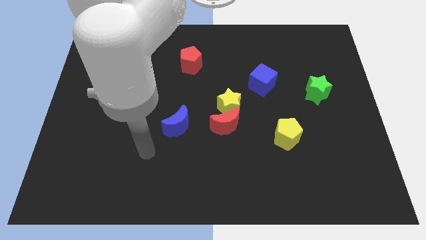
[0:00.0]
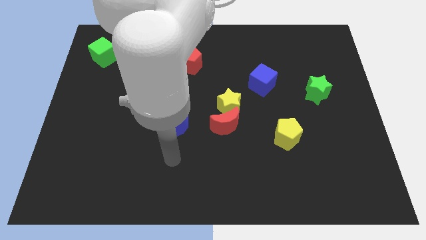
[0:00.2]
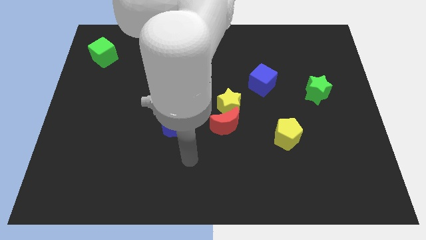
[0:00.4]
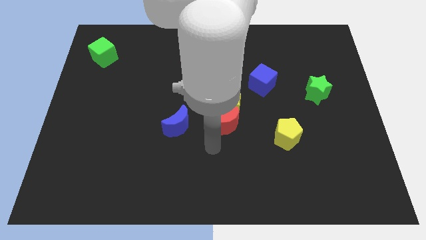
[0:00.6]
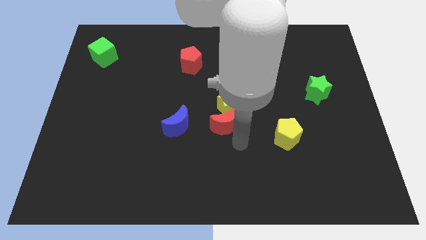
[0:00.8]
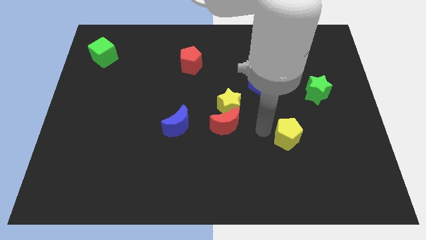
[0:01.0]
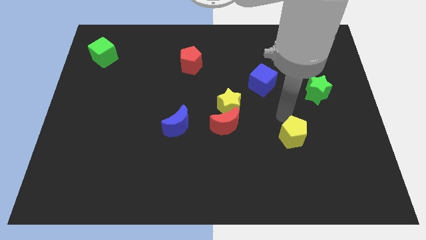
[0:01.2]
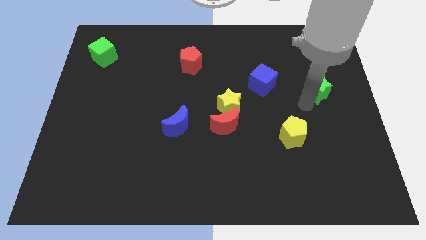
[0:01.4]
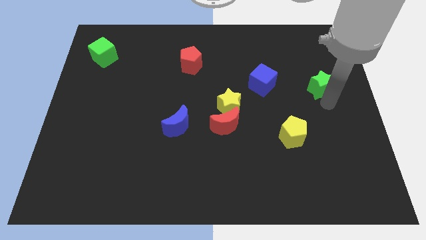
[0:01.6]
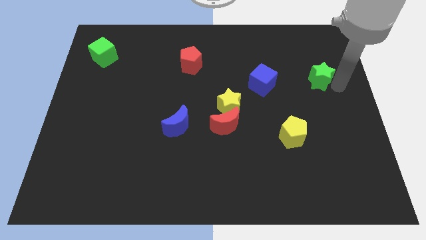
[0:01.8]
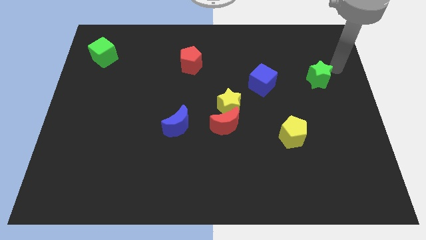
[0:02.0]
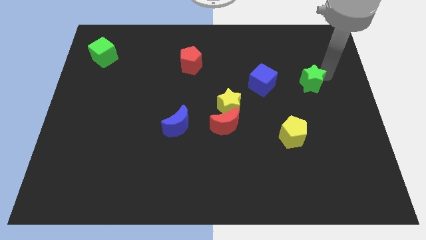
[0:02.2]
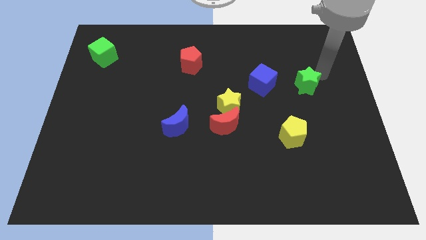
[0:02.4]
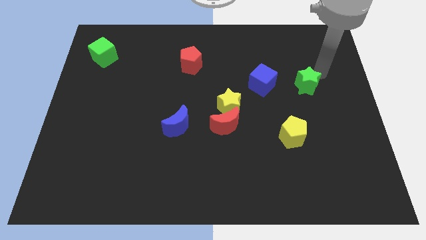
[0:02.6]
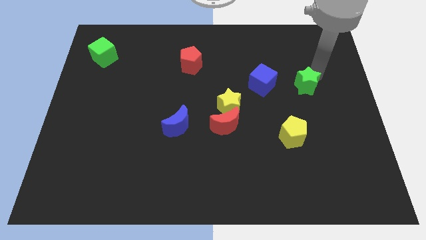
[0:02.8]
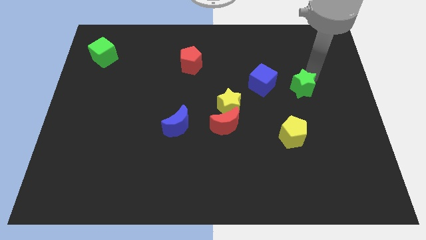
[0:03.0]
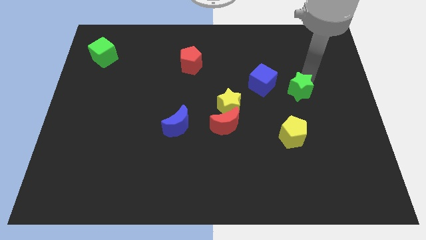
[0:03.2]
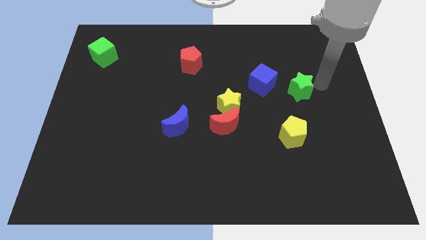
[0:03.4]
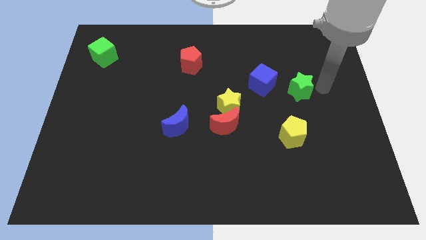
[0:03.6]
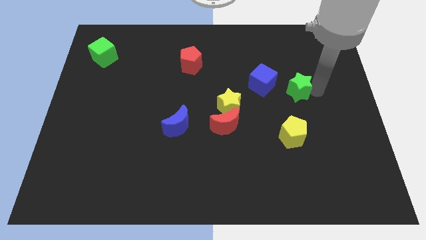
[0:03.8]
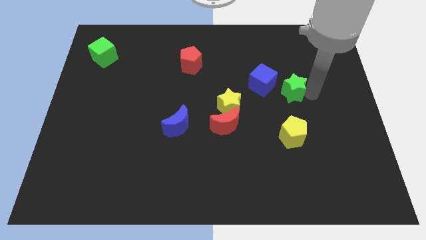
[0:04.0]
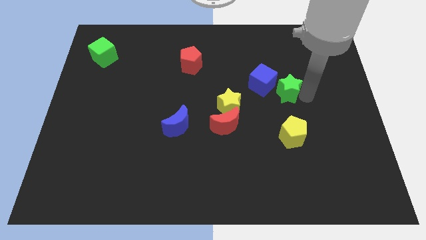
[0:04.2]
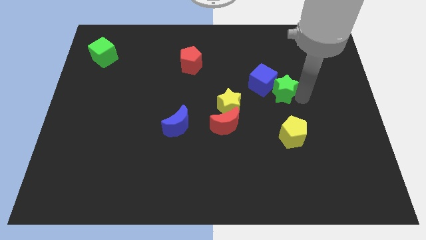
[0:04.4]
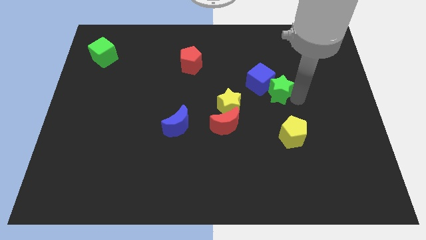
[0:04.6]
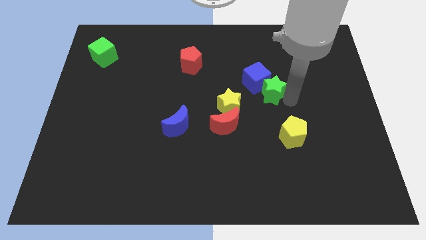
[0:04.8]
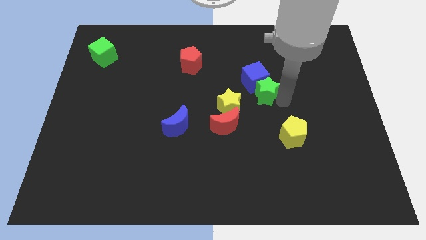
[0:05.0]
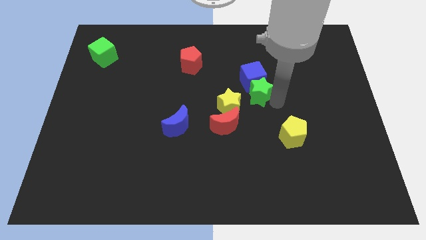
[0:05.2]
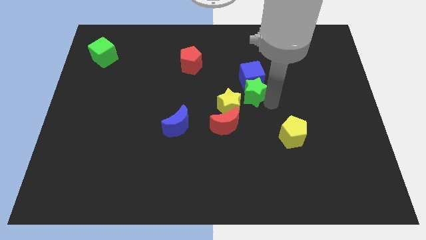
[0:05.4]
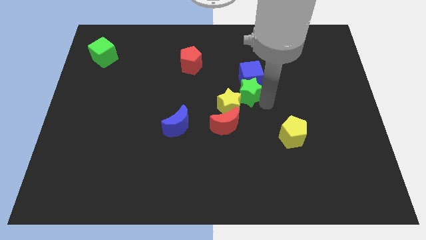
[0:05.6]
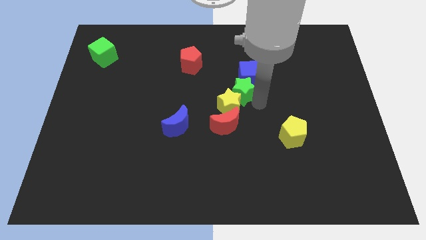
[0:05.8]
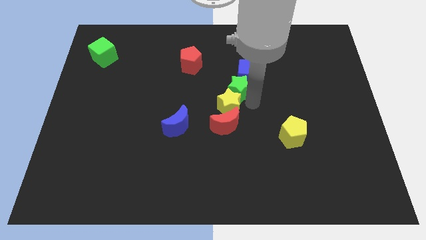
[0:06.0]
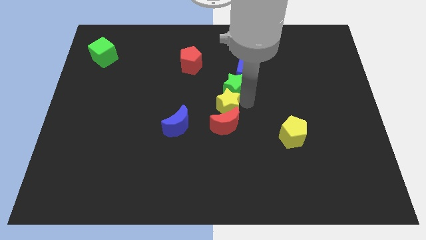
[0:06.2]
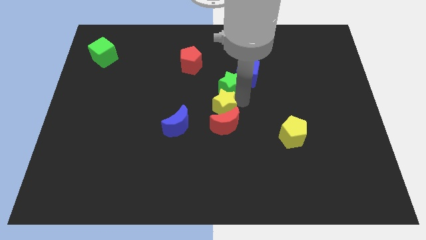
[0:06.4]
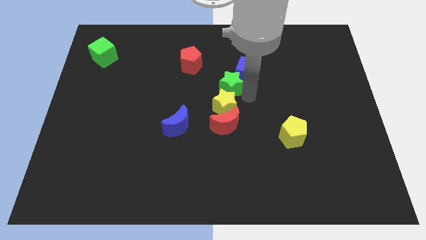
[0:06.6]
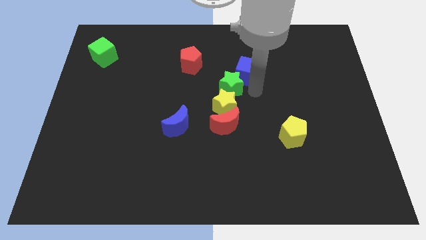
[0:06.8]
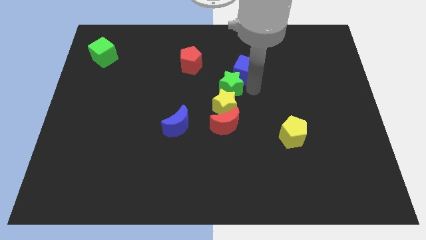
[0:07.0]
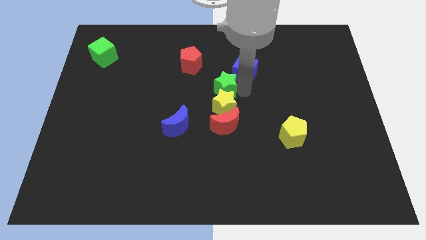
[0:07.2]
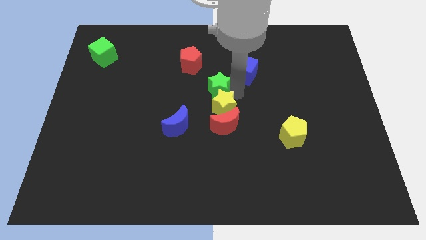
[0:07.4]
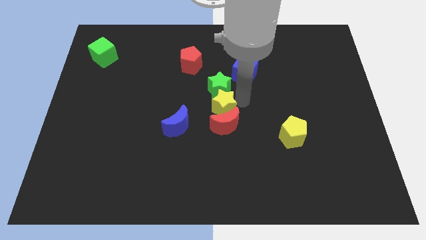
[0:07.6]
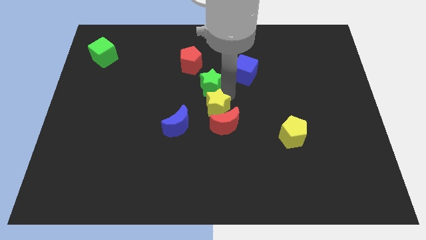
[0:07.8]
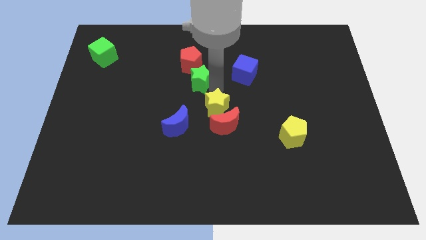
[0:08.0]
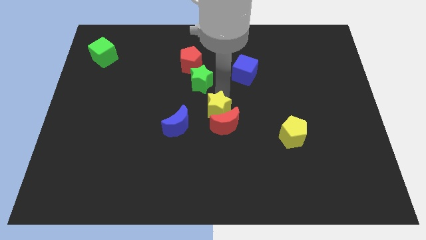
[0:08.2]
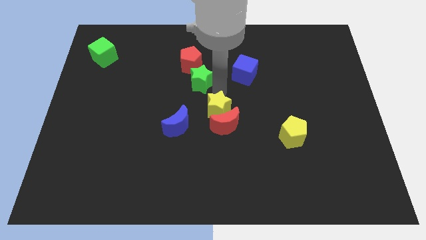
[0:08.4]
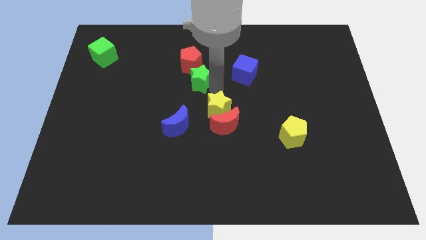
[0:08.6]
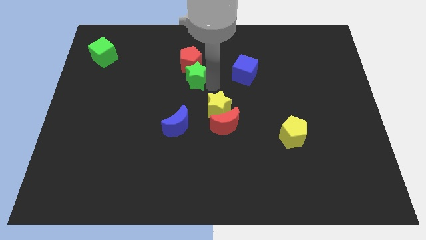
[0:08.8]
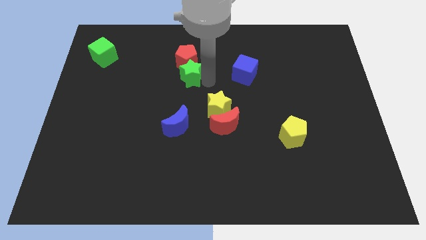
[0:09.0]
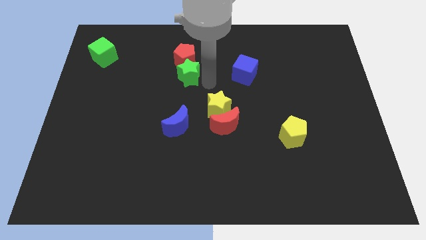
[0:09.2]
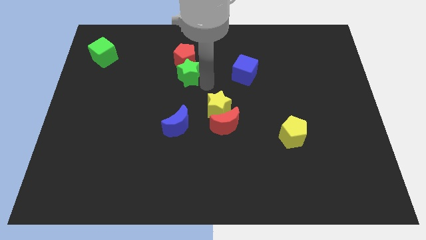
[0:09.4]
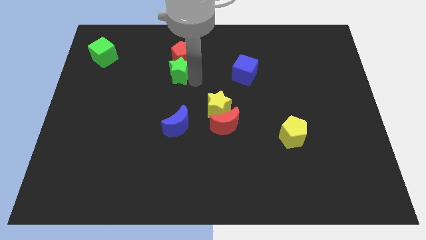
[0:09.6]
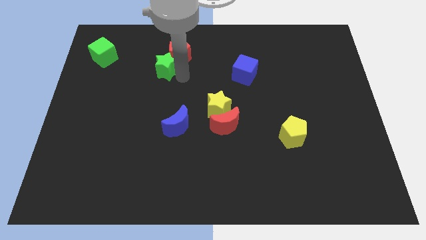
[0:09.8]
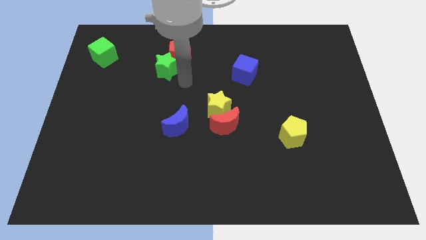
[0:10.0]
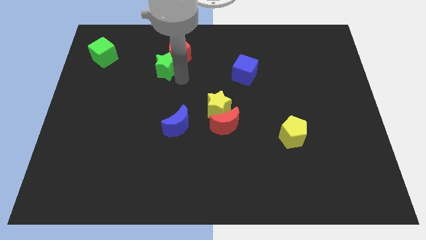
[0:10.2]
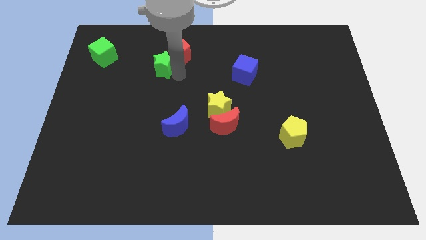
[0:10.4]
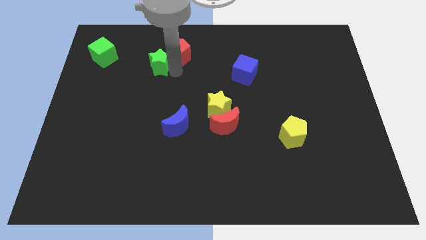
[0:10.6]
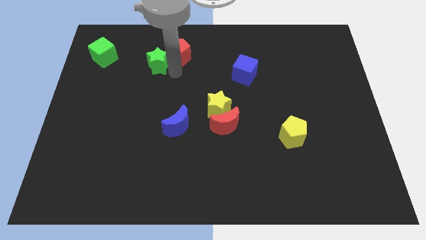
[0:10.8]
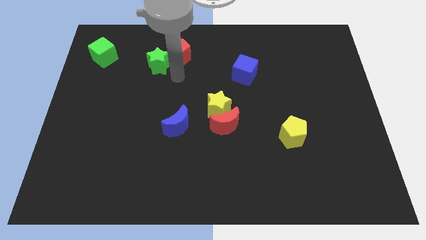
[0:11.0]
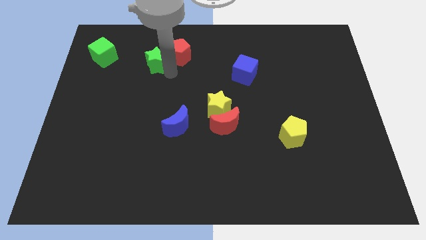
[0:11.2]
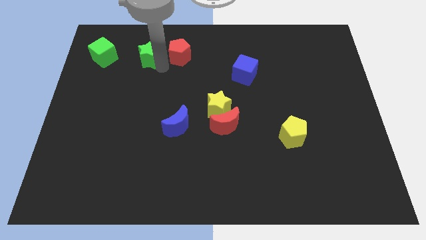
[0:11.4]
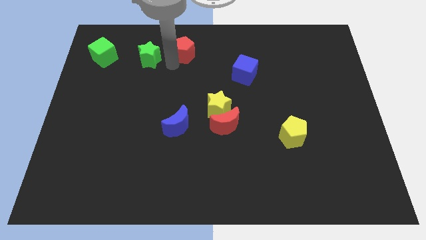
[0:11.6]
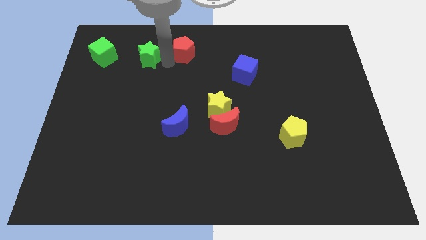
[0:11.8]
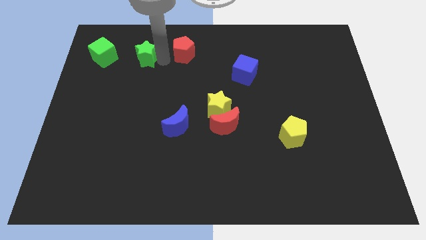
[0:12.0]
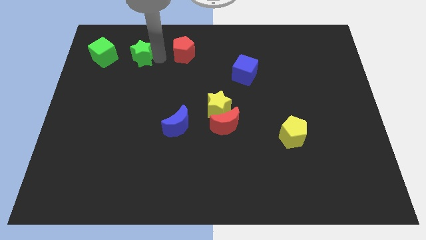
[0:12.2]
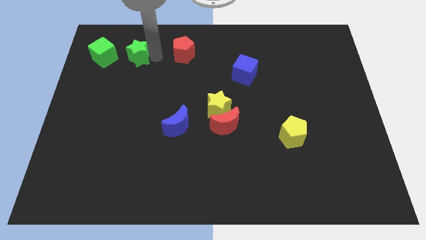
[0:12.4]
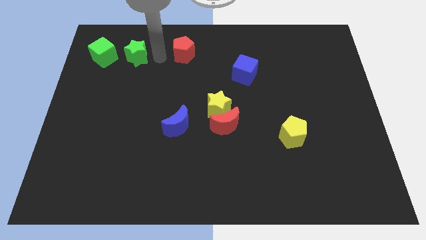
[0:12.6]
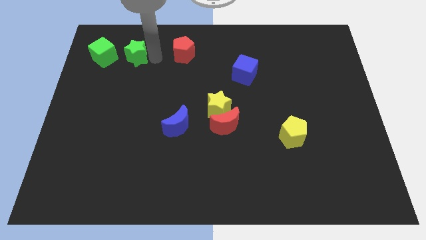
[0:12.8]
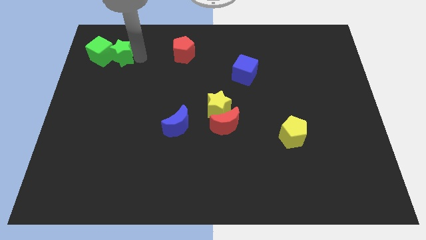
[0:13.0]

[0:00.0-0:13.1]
move the green star towards the green cube
